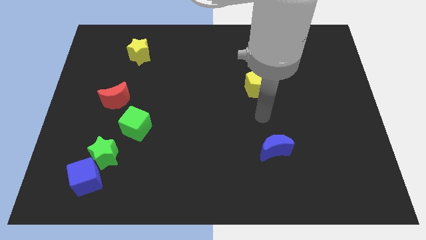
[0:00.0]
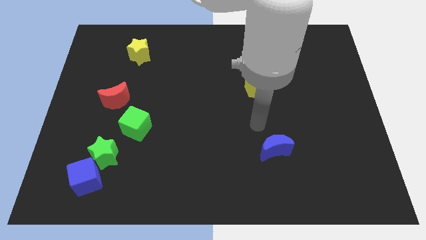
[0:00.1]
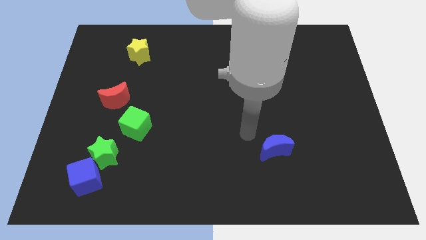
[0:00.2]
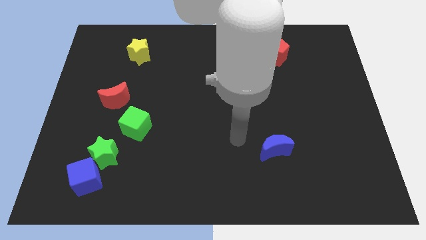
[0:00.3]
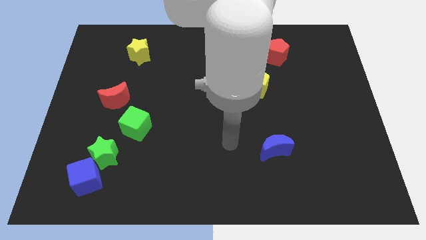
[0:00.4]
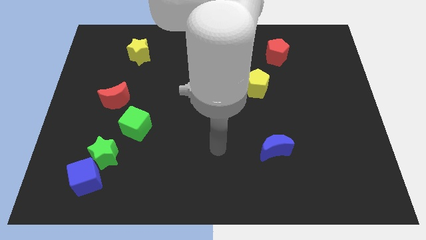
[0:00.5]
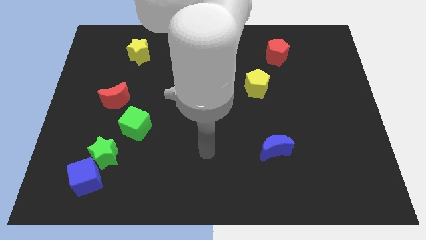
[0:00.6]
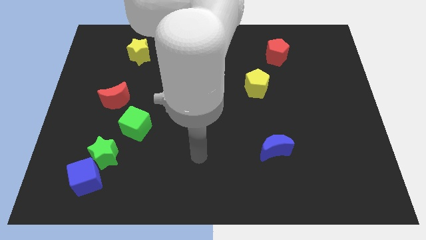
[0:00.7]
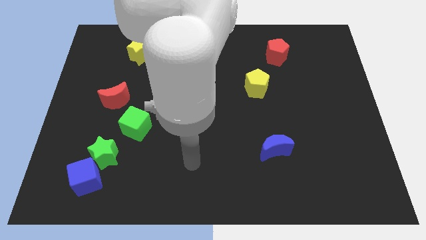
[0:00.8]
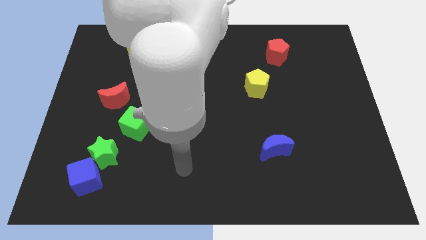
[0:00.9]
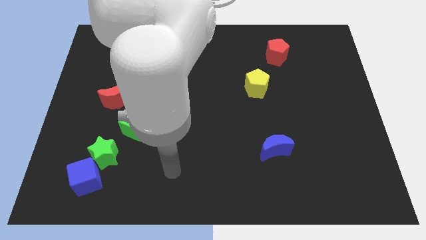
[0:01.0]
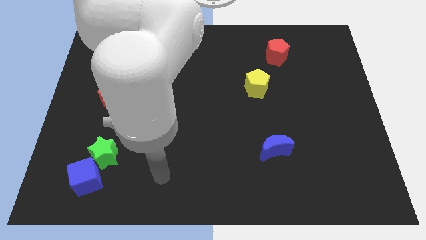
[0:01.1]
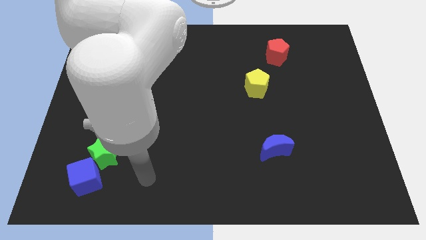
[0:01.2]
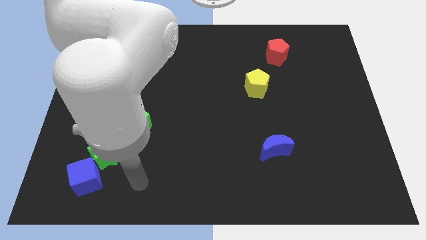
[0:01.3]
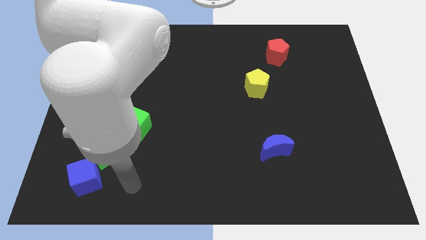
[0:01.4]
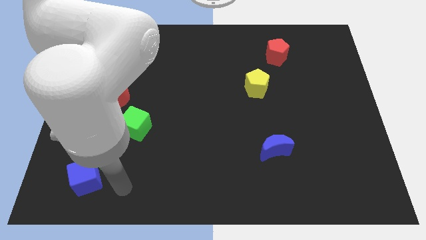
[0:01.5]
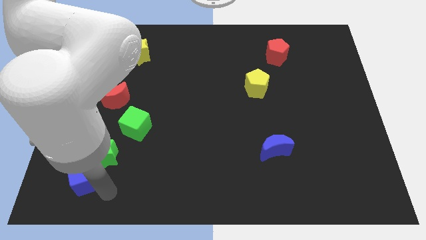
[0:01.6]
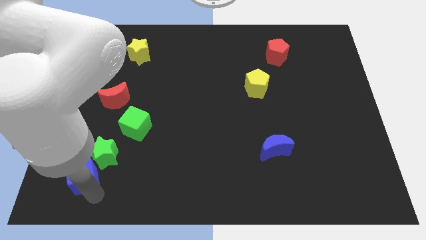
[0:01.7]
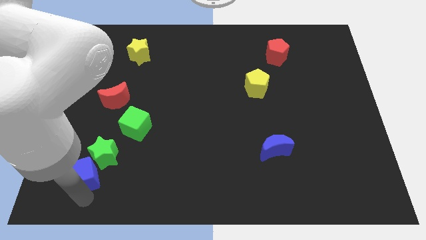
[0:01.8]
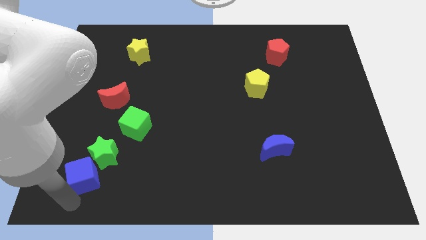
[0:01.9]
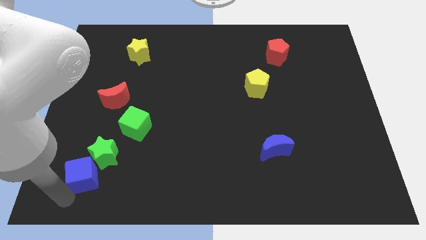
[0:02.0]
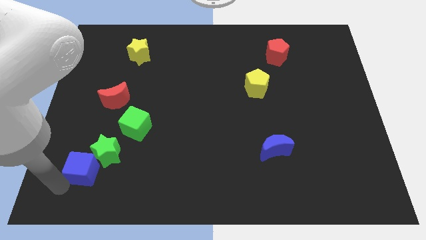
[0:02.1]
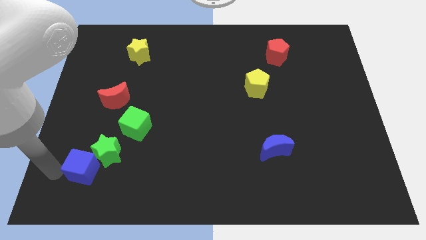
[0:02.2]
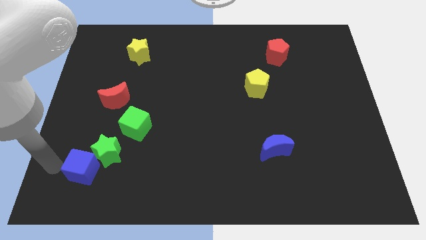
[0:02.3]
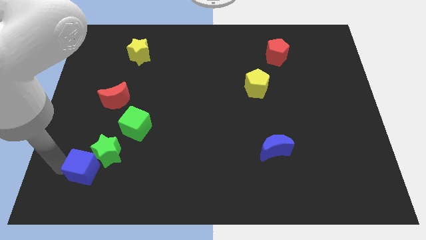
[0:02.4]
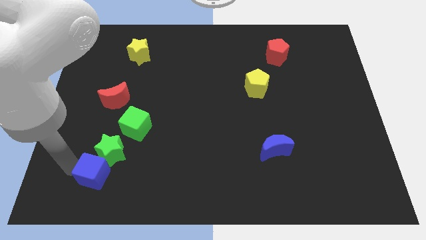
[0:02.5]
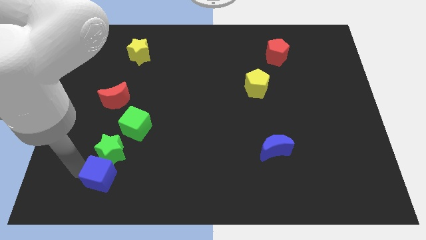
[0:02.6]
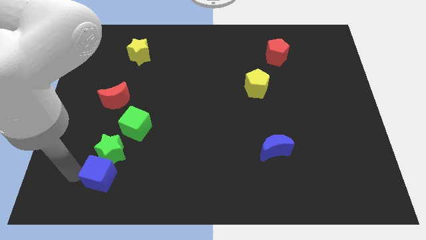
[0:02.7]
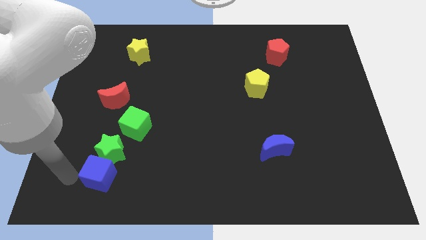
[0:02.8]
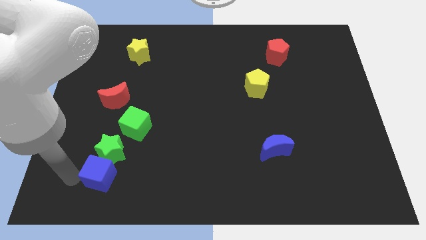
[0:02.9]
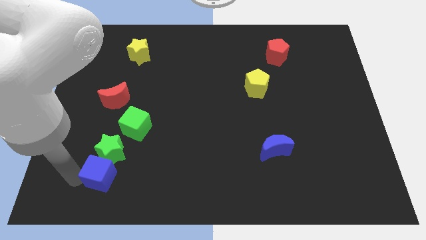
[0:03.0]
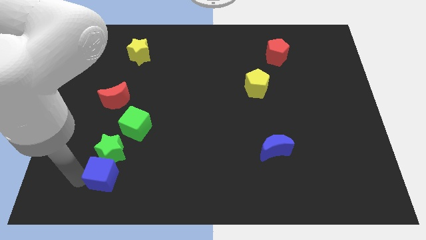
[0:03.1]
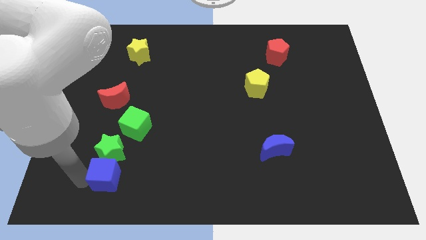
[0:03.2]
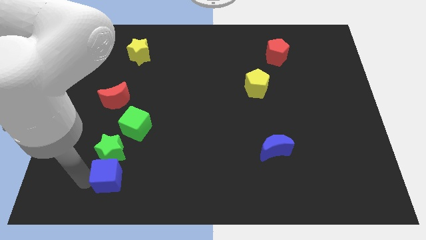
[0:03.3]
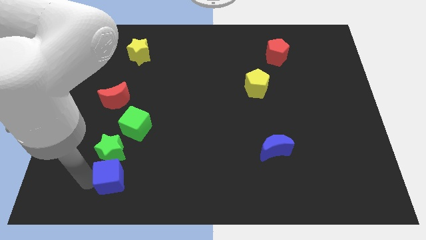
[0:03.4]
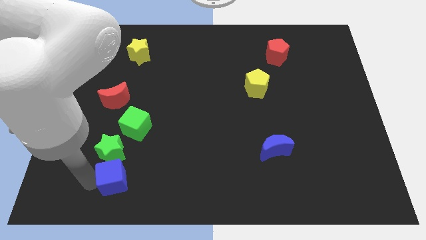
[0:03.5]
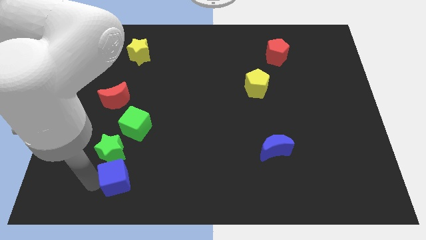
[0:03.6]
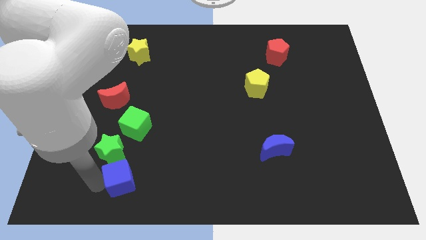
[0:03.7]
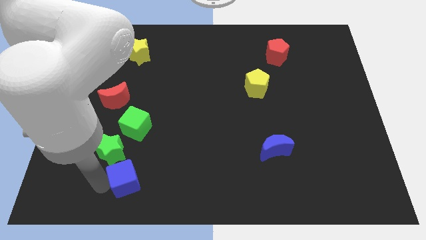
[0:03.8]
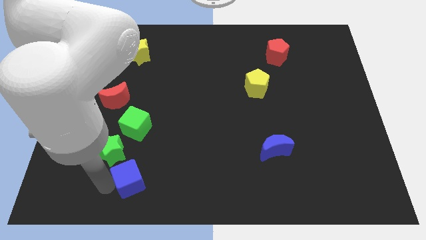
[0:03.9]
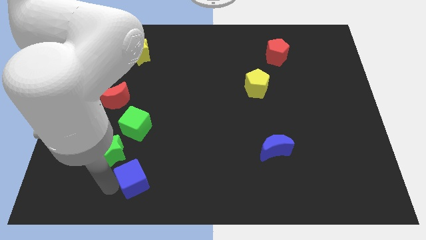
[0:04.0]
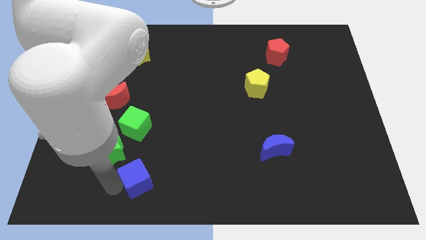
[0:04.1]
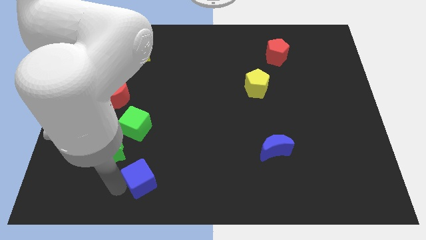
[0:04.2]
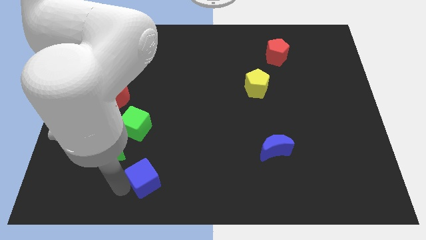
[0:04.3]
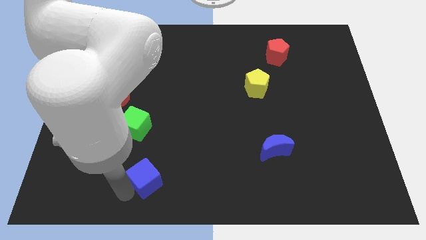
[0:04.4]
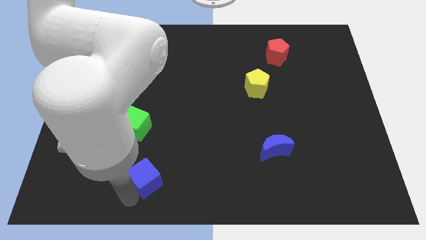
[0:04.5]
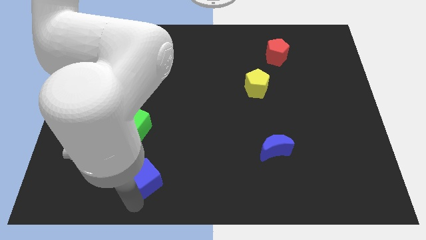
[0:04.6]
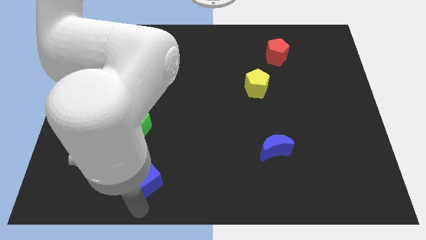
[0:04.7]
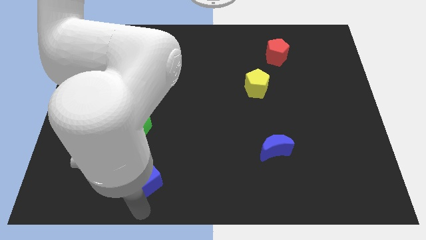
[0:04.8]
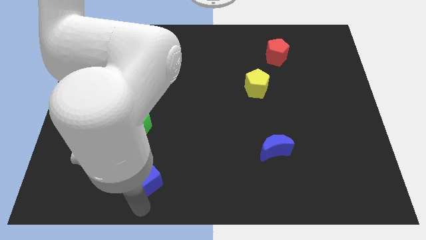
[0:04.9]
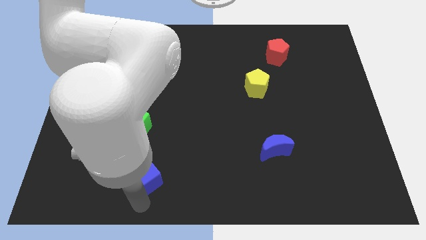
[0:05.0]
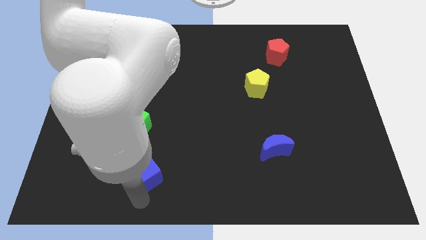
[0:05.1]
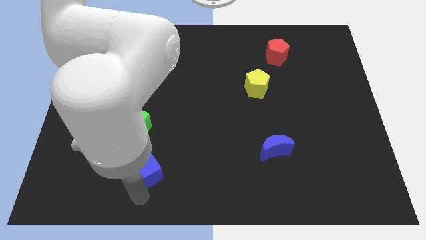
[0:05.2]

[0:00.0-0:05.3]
slightly move the blue cube upwards and to the right diagonally

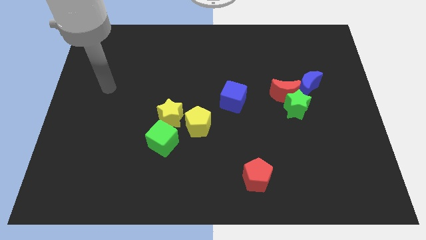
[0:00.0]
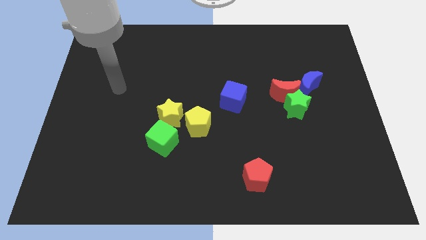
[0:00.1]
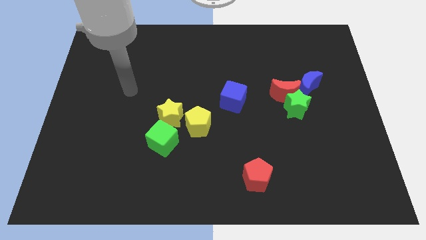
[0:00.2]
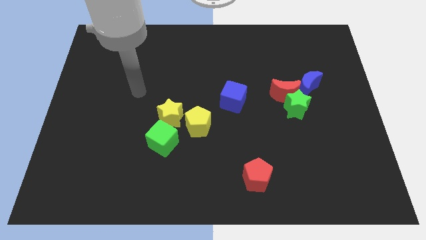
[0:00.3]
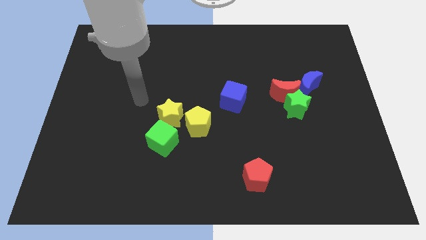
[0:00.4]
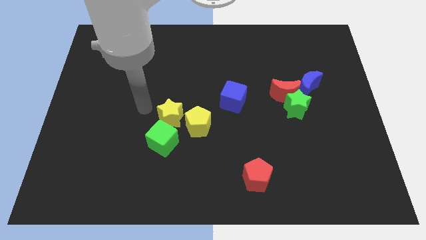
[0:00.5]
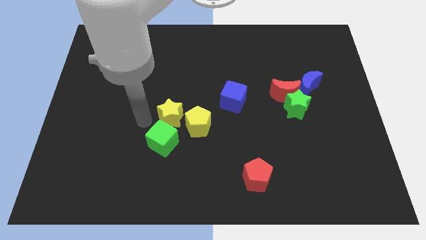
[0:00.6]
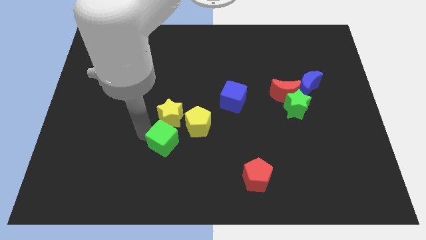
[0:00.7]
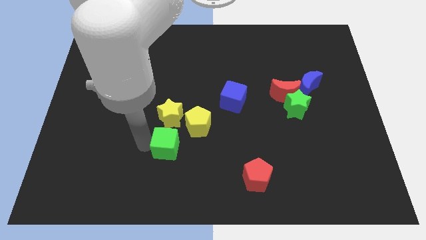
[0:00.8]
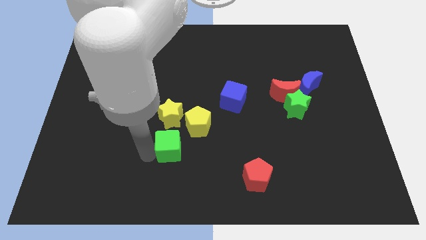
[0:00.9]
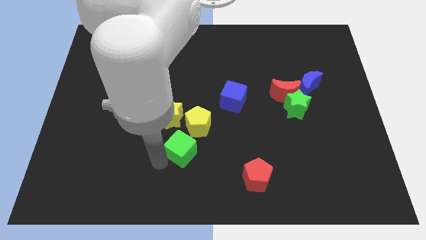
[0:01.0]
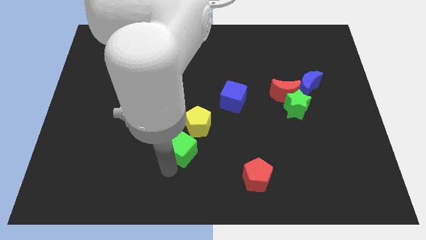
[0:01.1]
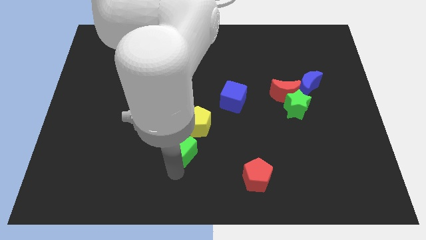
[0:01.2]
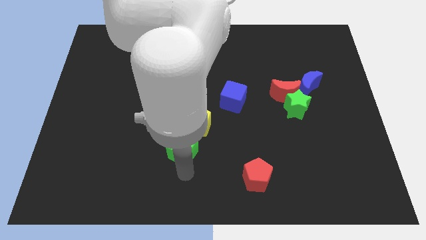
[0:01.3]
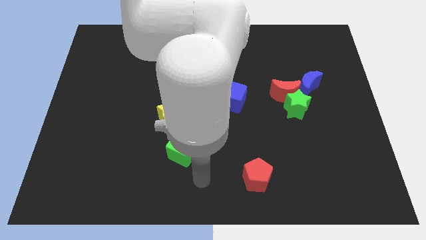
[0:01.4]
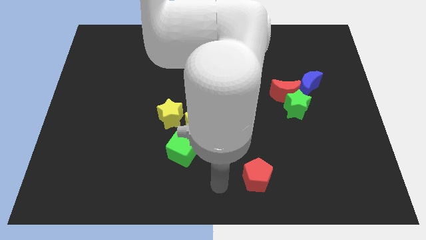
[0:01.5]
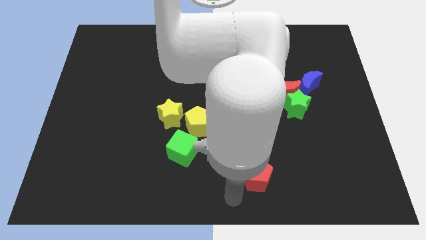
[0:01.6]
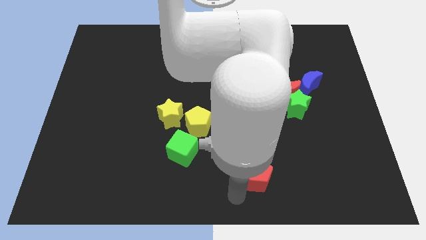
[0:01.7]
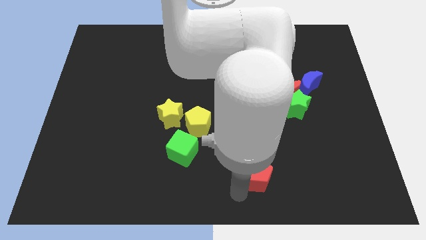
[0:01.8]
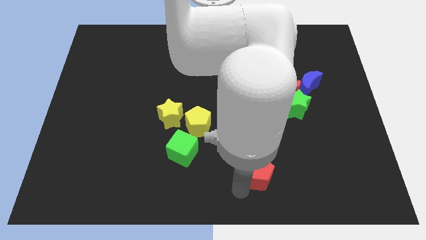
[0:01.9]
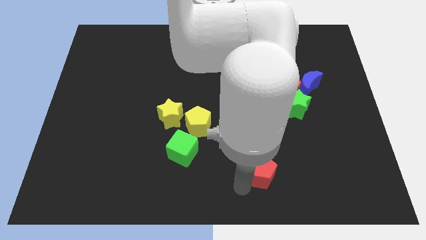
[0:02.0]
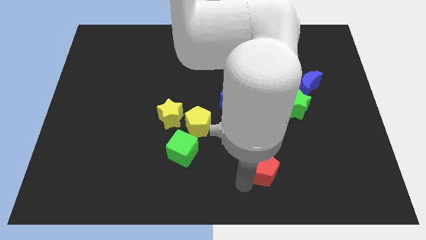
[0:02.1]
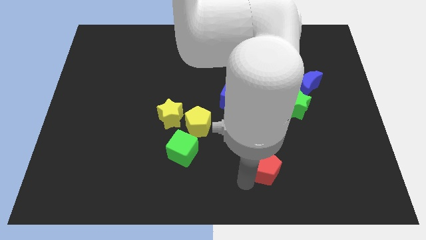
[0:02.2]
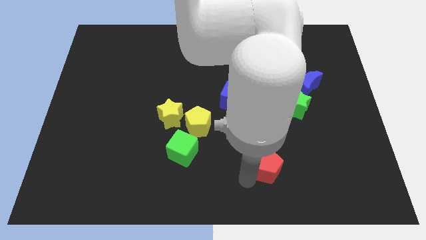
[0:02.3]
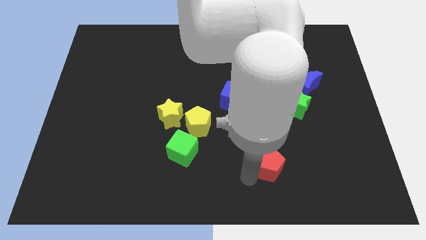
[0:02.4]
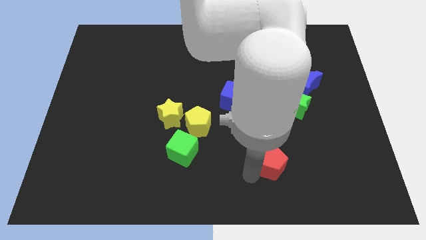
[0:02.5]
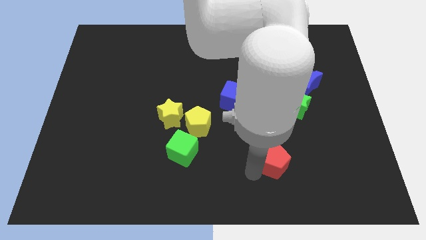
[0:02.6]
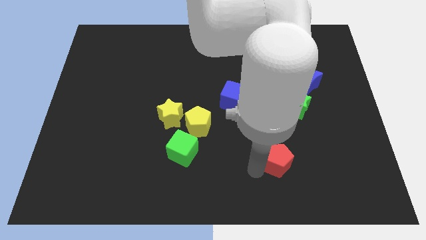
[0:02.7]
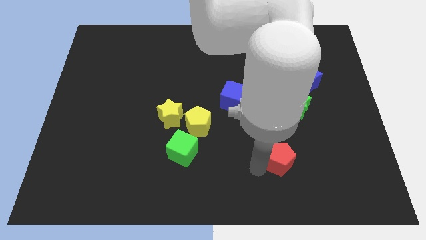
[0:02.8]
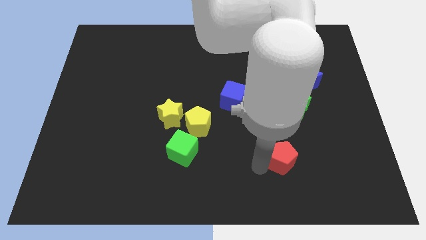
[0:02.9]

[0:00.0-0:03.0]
slide the red pentagon diagonally upwards and to the right a little bit
